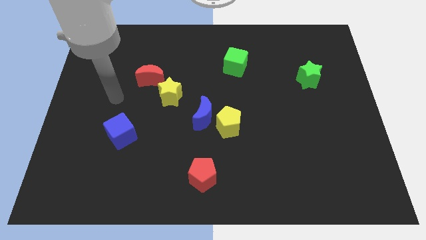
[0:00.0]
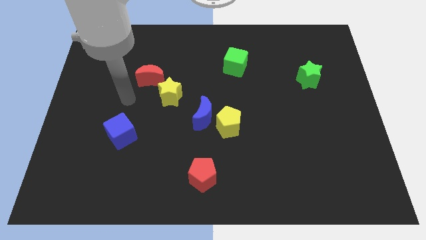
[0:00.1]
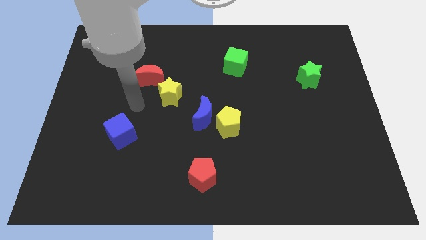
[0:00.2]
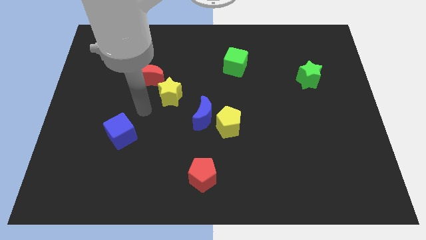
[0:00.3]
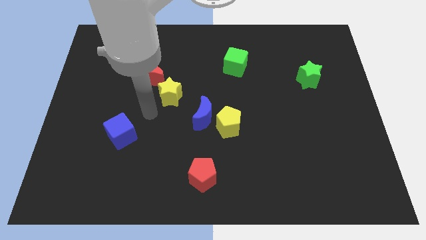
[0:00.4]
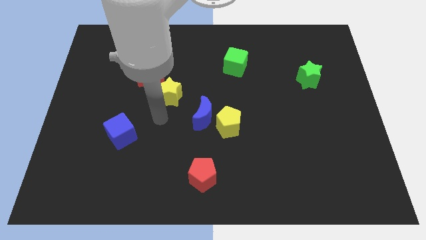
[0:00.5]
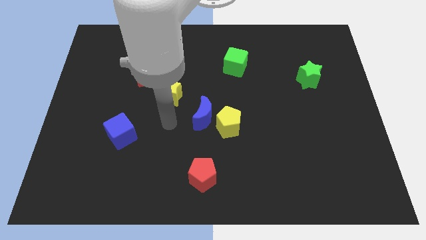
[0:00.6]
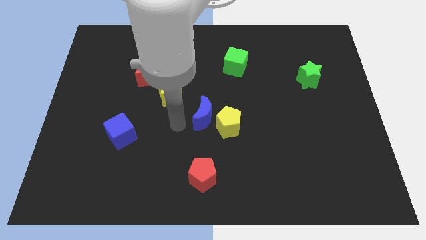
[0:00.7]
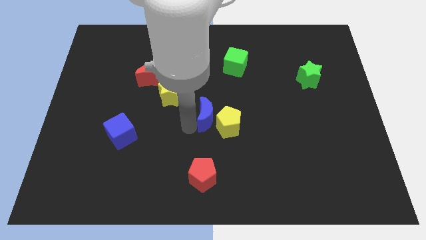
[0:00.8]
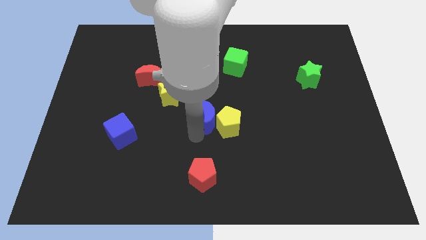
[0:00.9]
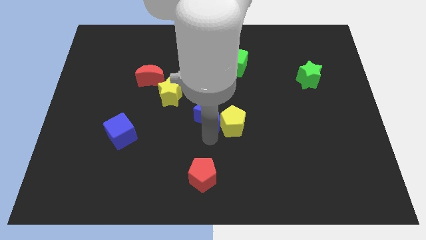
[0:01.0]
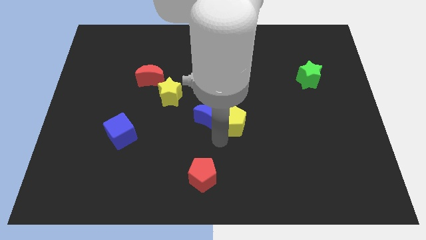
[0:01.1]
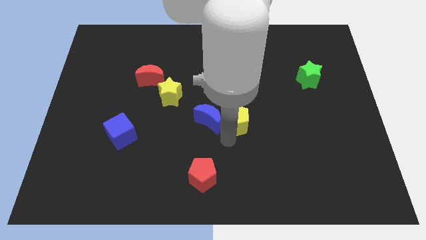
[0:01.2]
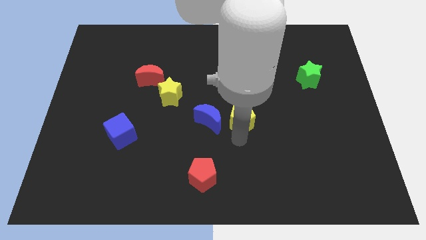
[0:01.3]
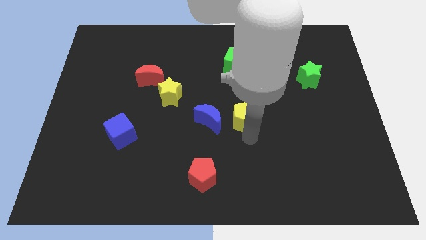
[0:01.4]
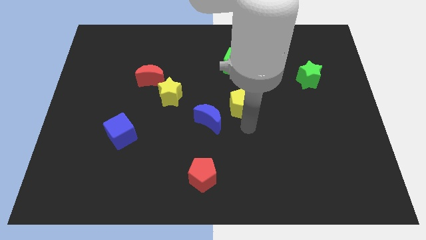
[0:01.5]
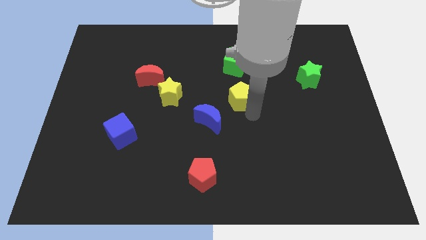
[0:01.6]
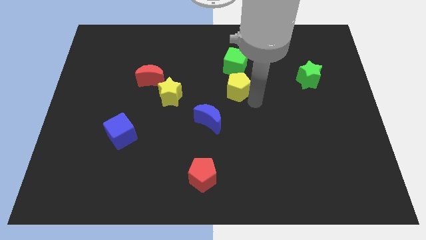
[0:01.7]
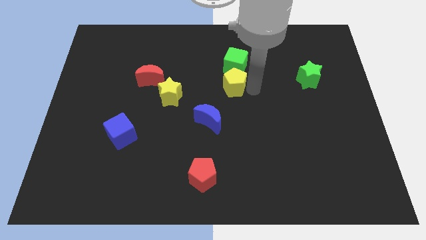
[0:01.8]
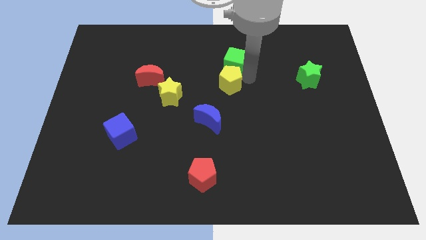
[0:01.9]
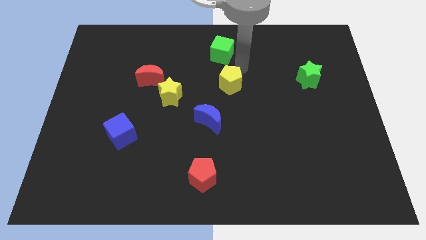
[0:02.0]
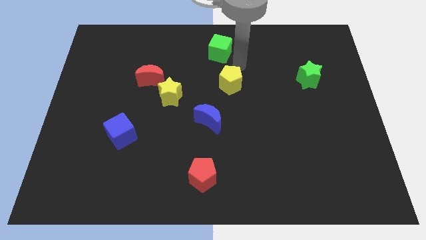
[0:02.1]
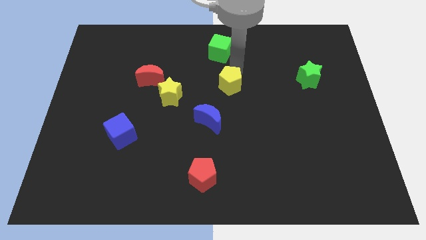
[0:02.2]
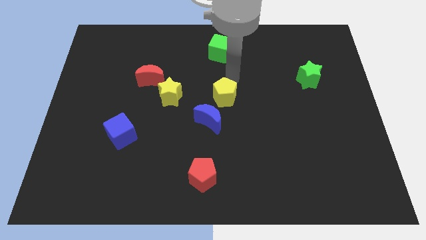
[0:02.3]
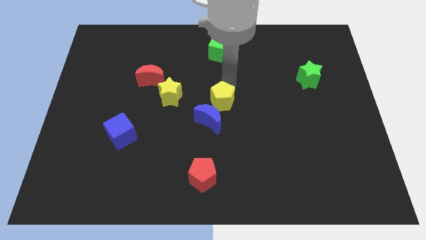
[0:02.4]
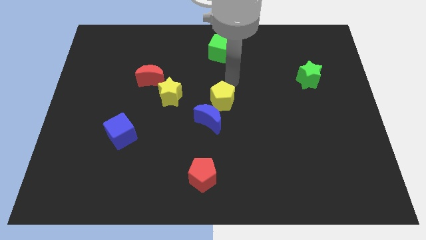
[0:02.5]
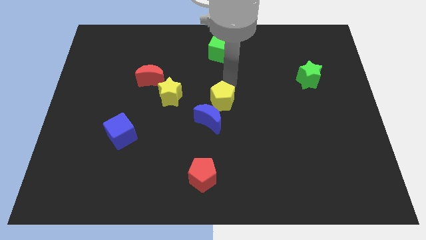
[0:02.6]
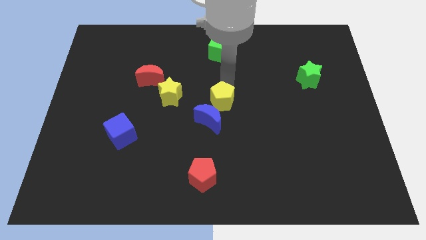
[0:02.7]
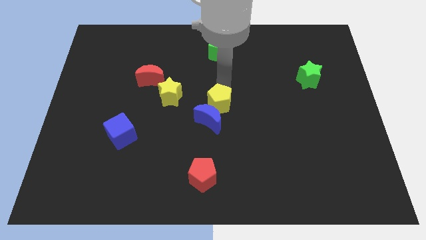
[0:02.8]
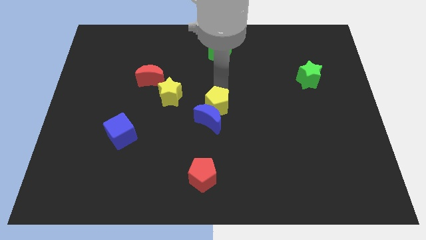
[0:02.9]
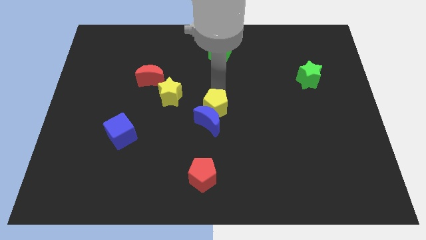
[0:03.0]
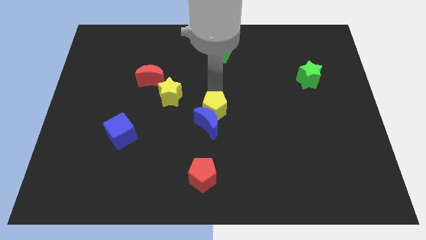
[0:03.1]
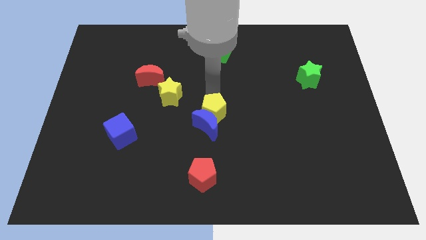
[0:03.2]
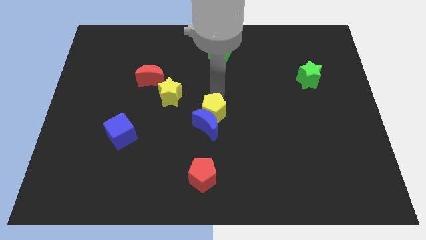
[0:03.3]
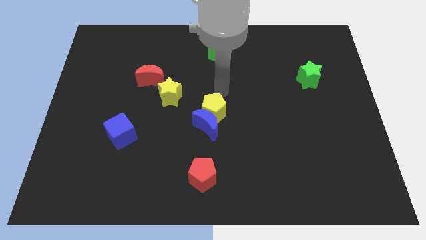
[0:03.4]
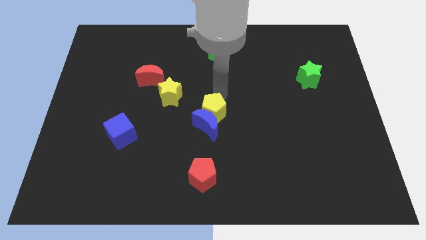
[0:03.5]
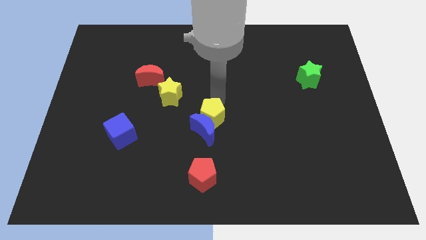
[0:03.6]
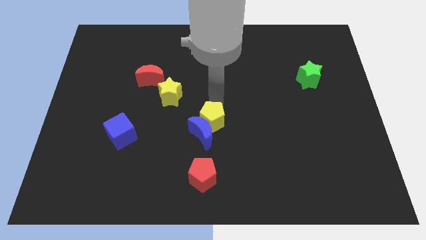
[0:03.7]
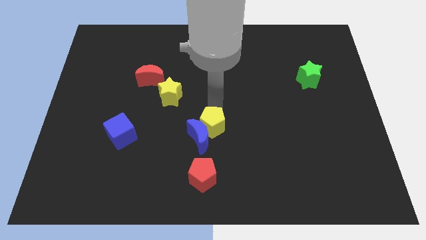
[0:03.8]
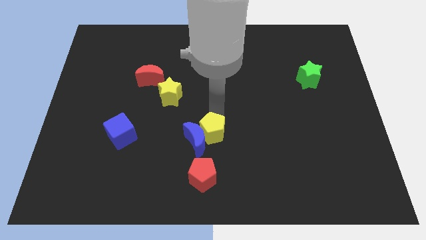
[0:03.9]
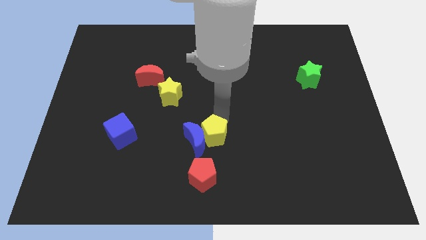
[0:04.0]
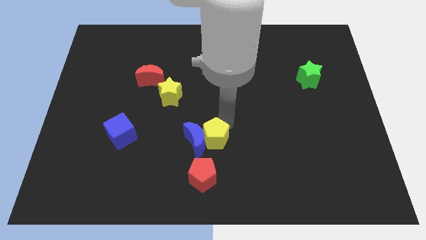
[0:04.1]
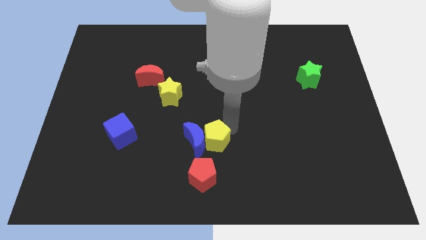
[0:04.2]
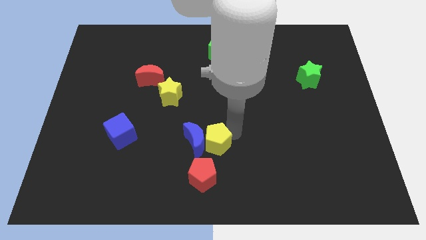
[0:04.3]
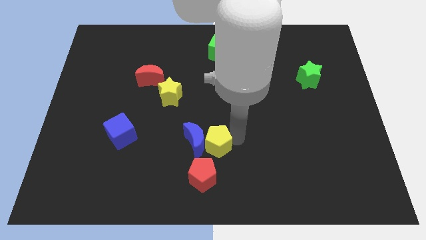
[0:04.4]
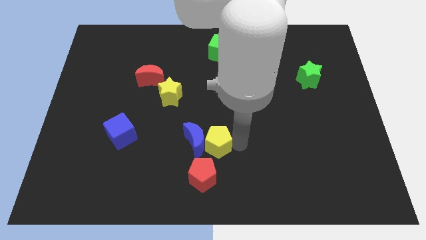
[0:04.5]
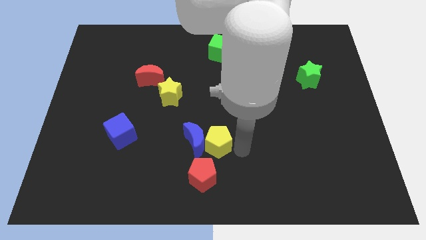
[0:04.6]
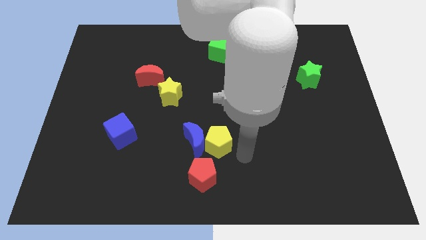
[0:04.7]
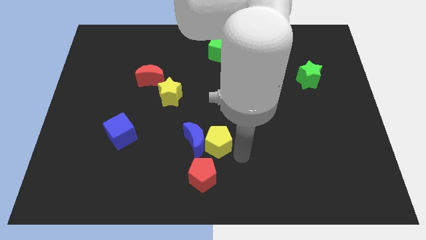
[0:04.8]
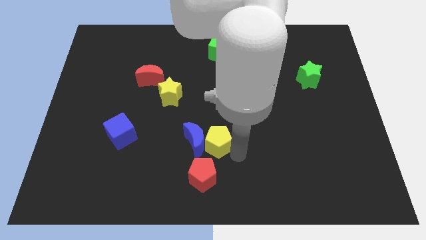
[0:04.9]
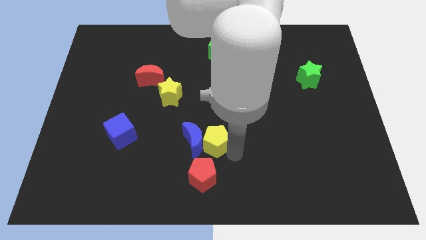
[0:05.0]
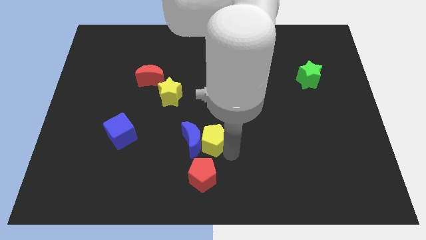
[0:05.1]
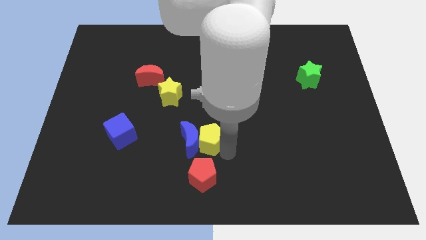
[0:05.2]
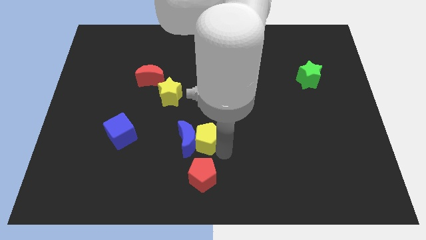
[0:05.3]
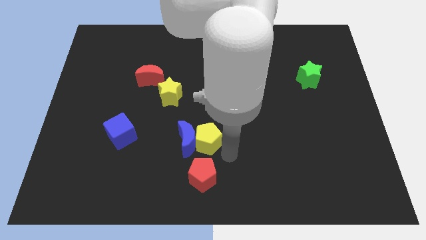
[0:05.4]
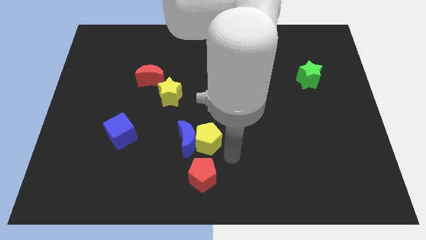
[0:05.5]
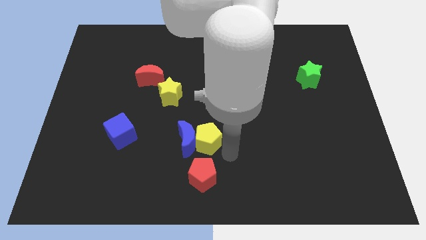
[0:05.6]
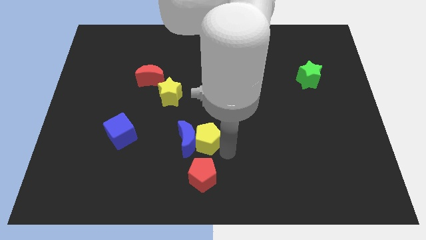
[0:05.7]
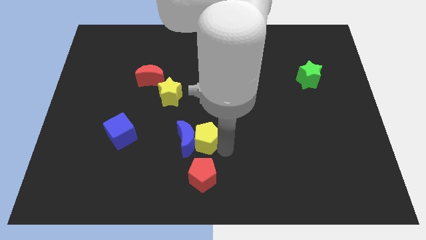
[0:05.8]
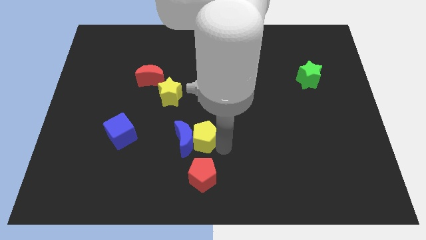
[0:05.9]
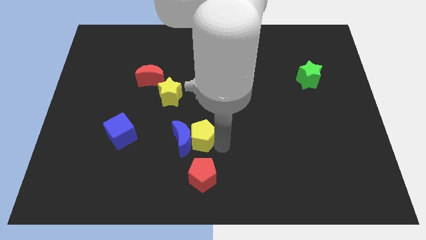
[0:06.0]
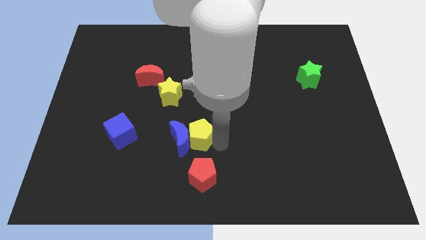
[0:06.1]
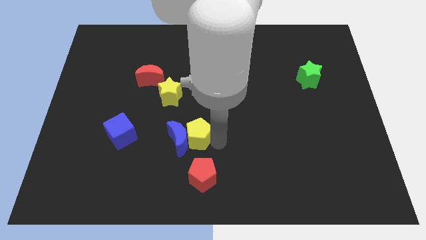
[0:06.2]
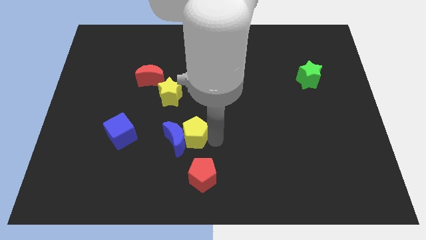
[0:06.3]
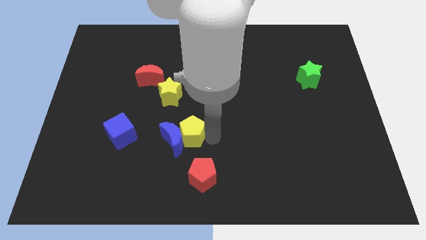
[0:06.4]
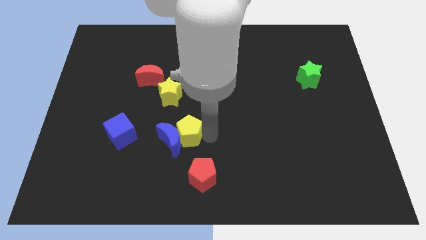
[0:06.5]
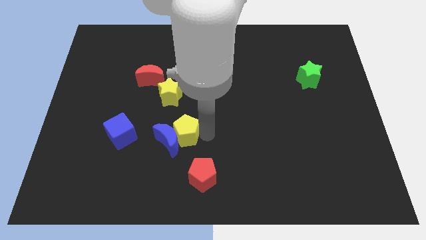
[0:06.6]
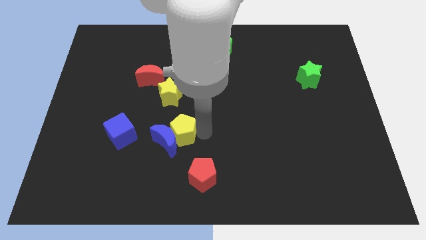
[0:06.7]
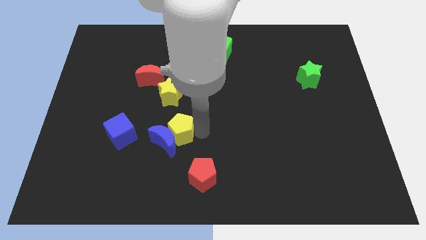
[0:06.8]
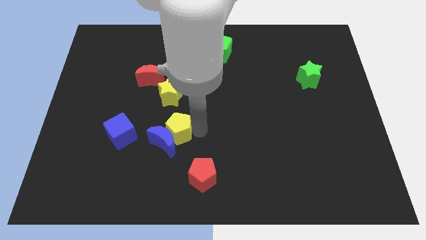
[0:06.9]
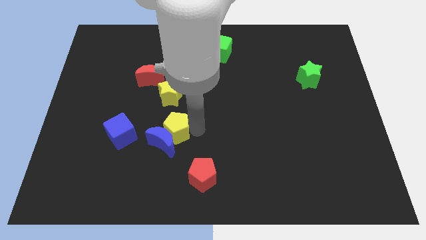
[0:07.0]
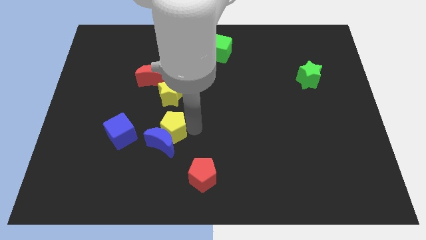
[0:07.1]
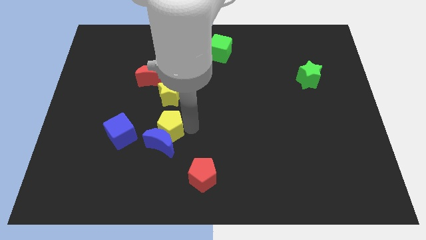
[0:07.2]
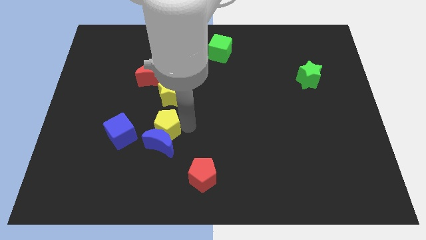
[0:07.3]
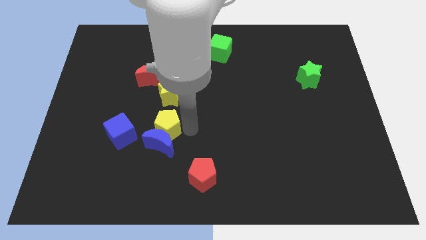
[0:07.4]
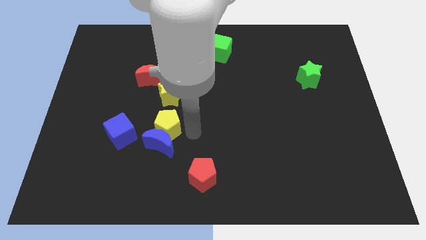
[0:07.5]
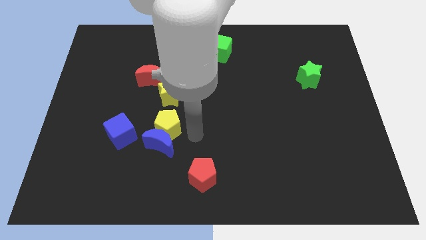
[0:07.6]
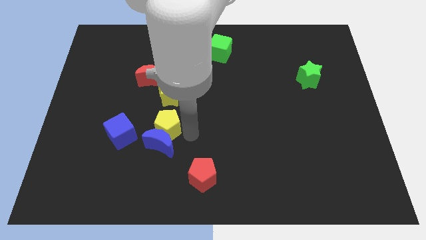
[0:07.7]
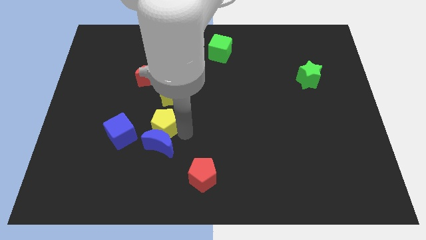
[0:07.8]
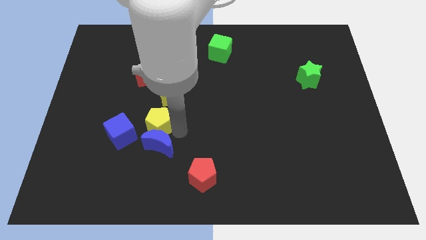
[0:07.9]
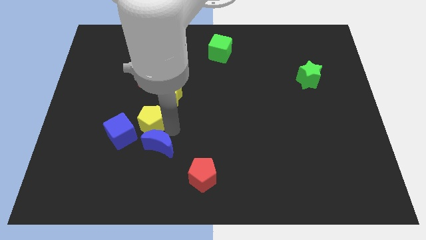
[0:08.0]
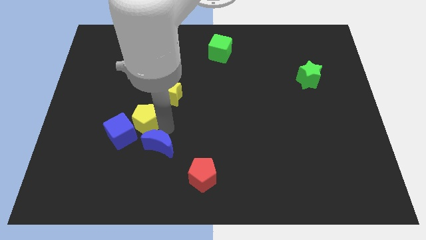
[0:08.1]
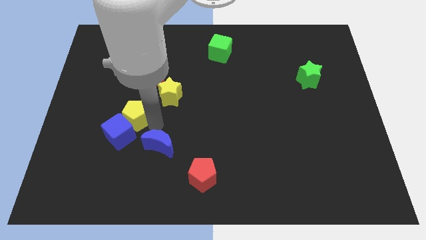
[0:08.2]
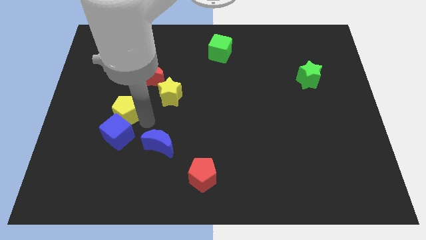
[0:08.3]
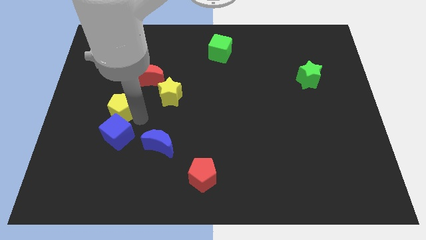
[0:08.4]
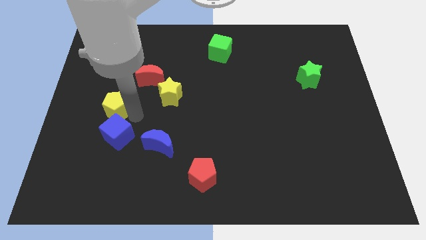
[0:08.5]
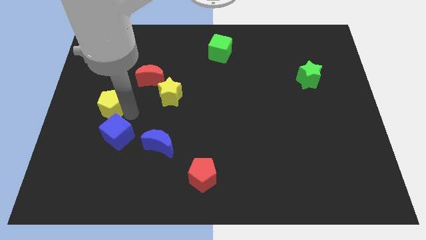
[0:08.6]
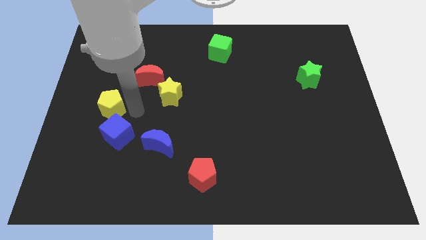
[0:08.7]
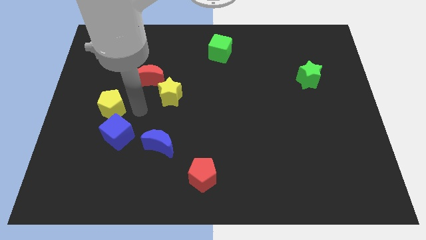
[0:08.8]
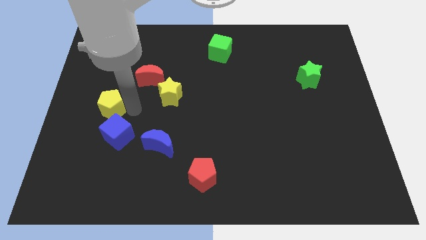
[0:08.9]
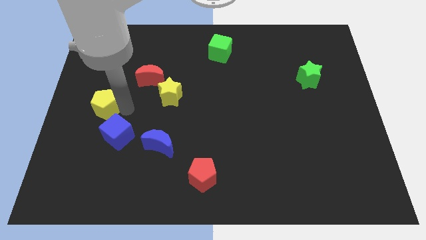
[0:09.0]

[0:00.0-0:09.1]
move the yellow pentagon to the left side
